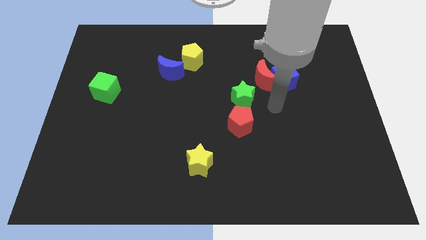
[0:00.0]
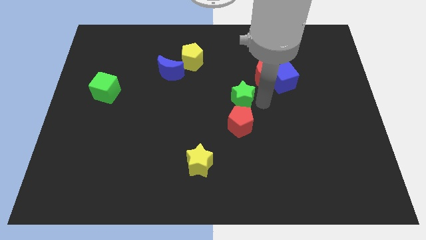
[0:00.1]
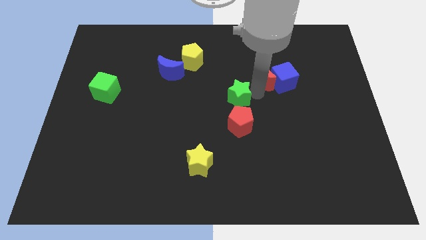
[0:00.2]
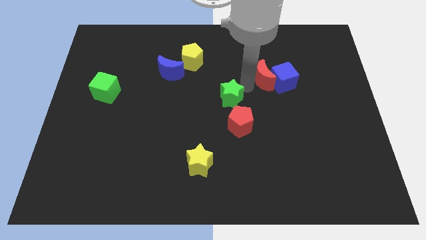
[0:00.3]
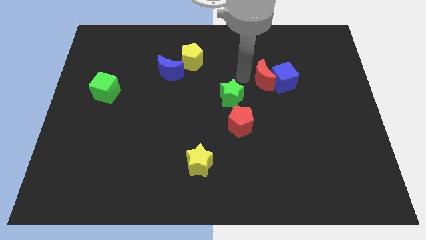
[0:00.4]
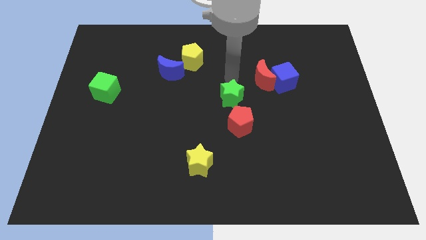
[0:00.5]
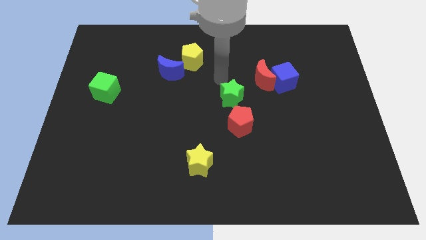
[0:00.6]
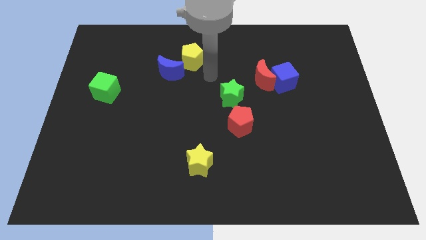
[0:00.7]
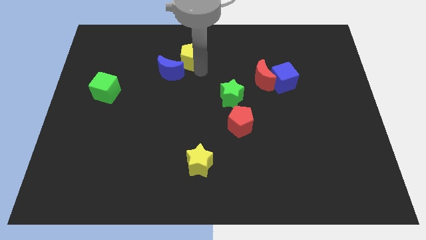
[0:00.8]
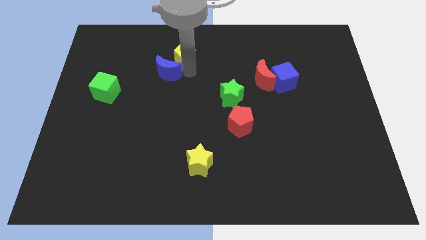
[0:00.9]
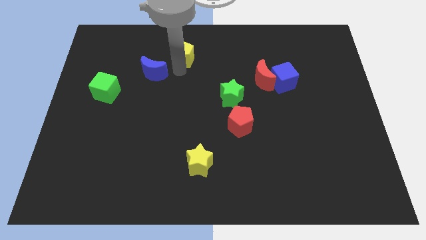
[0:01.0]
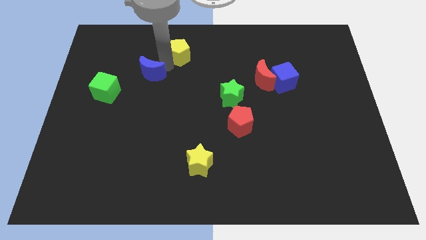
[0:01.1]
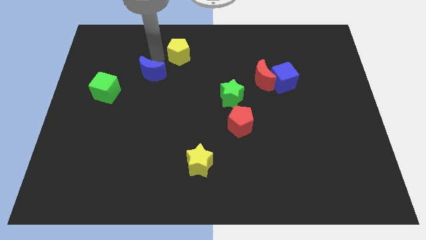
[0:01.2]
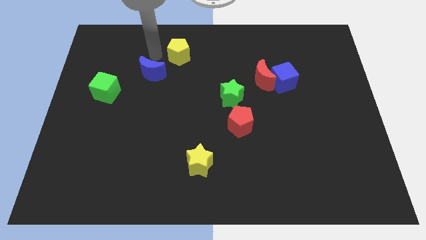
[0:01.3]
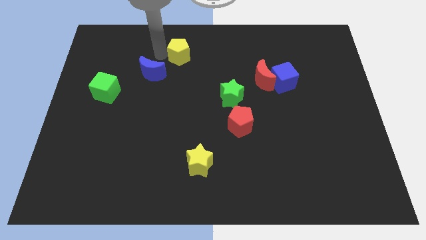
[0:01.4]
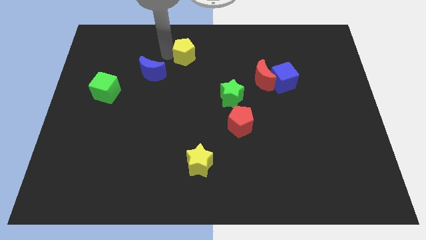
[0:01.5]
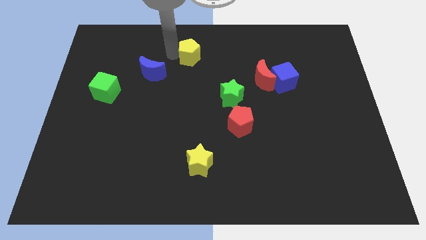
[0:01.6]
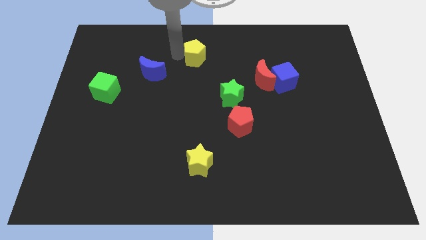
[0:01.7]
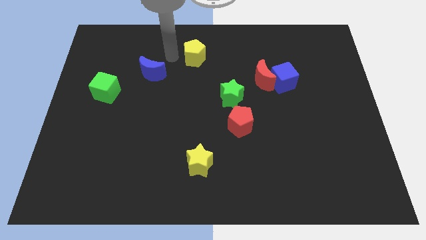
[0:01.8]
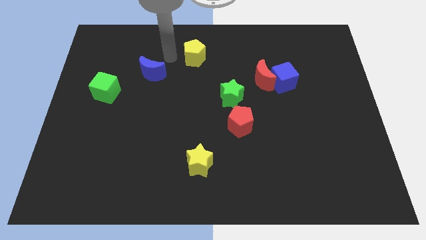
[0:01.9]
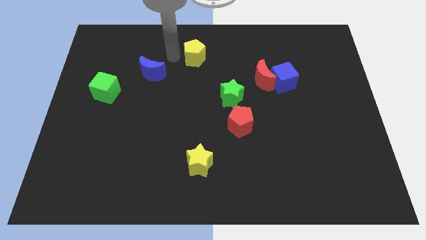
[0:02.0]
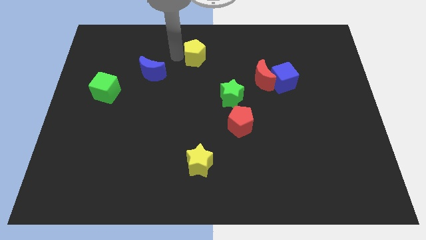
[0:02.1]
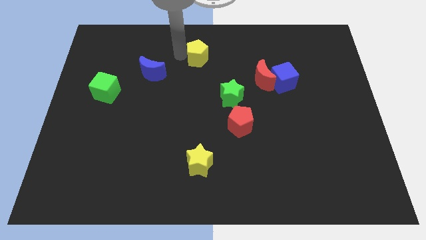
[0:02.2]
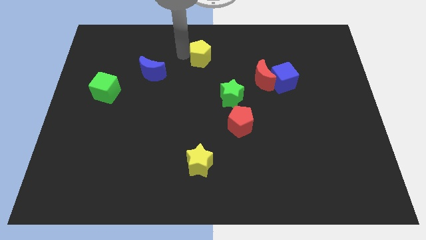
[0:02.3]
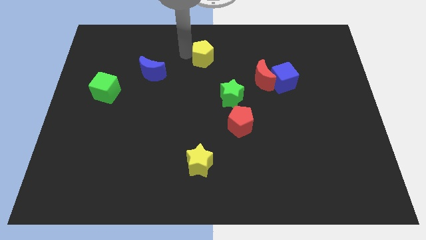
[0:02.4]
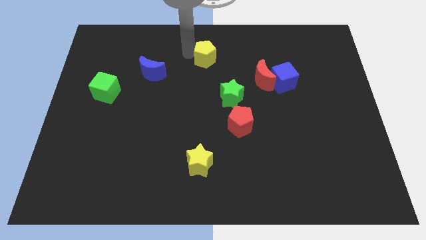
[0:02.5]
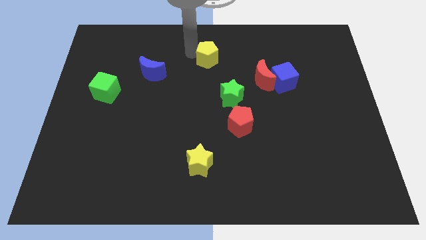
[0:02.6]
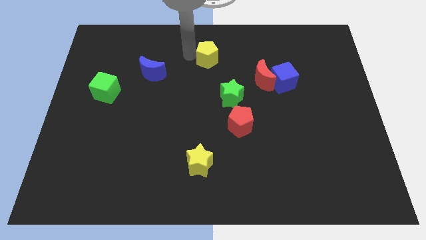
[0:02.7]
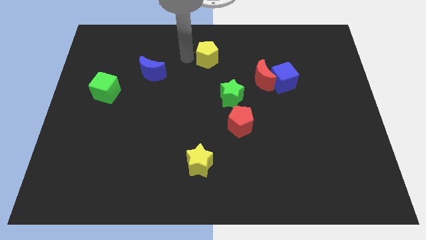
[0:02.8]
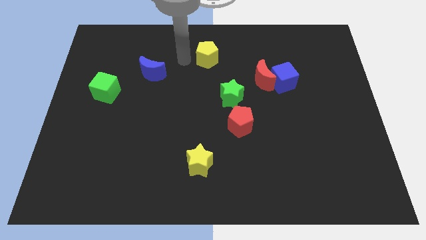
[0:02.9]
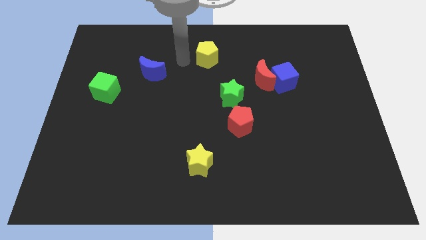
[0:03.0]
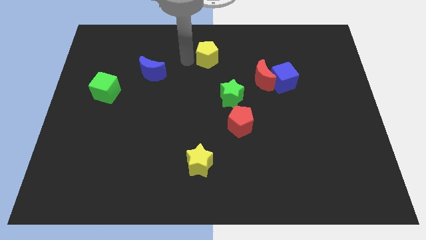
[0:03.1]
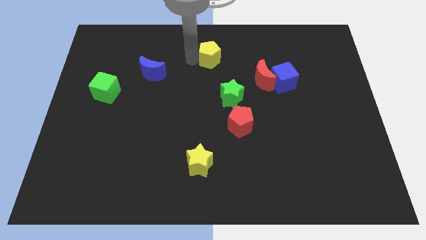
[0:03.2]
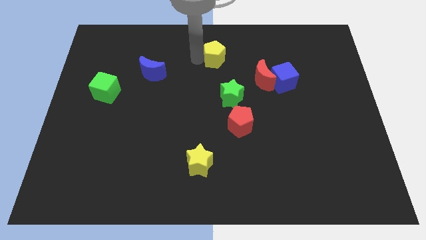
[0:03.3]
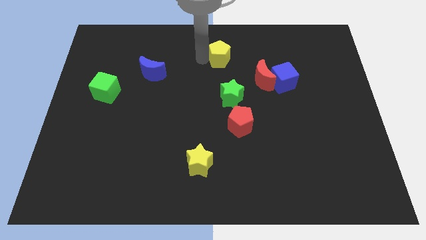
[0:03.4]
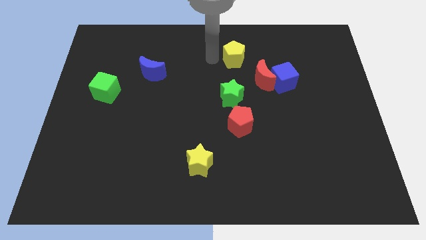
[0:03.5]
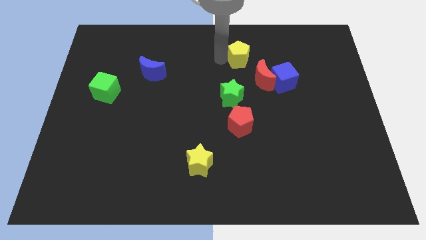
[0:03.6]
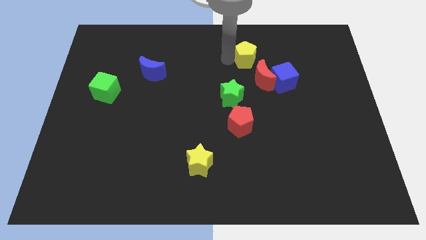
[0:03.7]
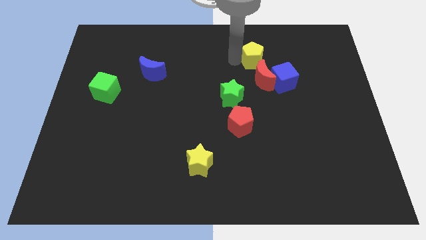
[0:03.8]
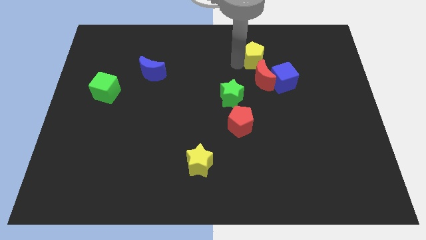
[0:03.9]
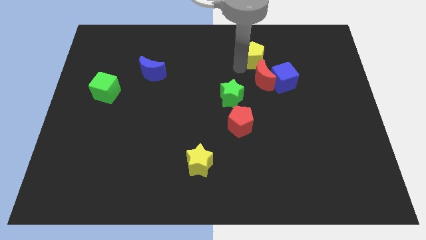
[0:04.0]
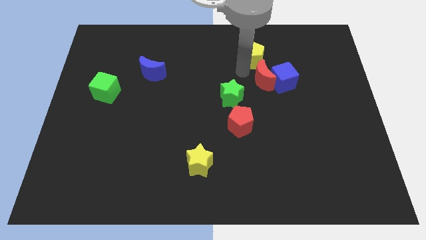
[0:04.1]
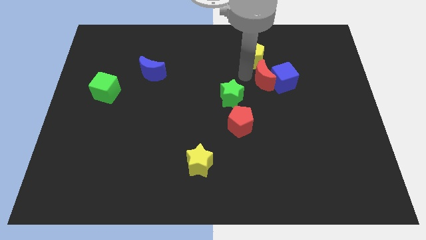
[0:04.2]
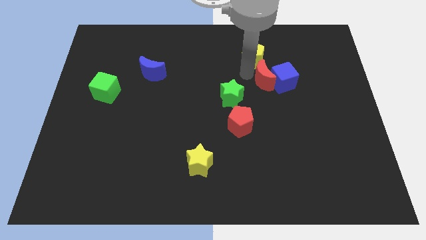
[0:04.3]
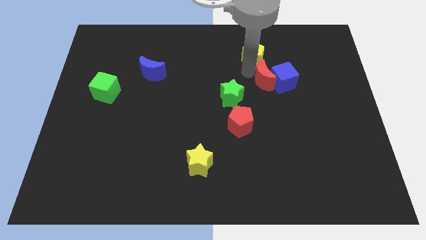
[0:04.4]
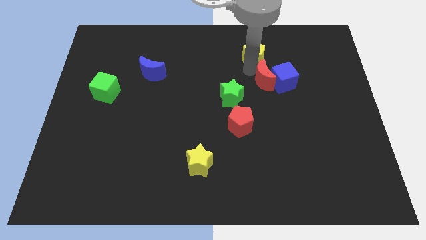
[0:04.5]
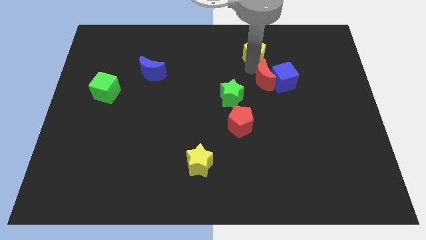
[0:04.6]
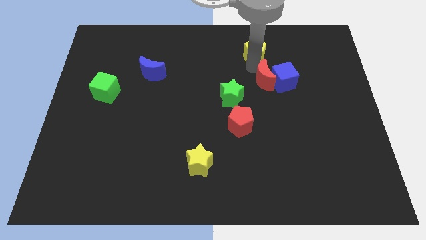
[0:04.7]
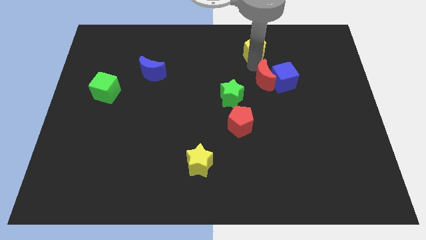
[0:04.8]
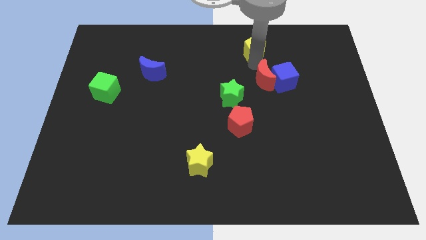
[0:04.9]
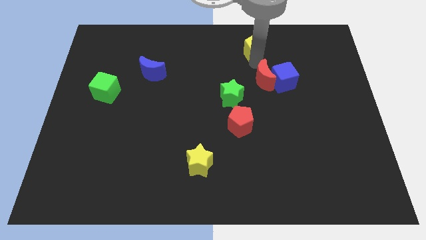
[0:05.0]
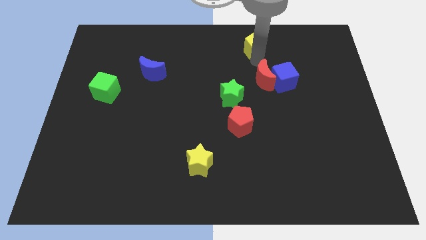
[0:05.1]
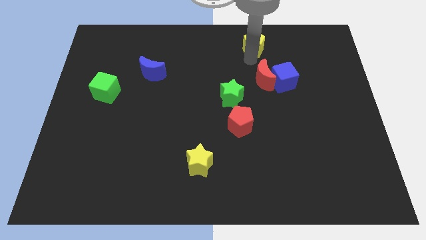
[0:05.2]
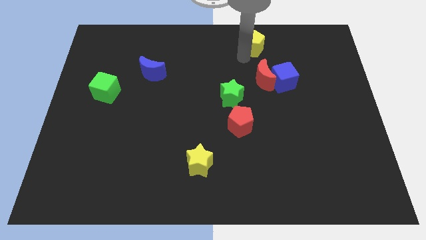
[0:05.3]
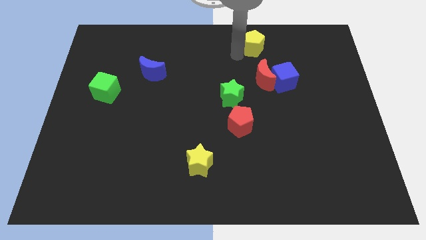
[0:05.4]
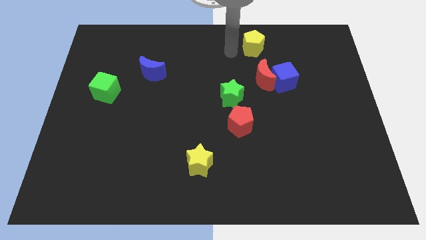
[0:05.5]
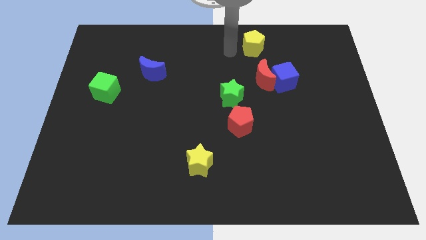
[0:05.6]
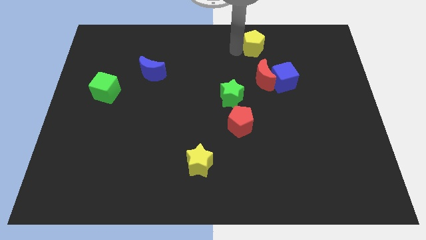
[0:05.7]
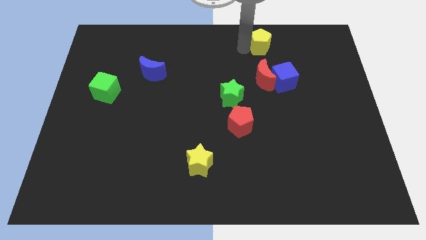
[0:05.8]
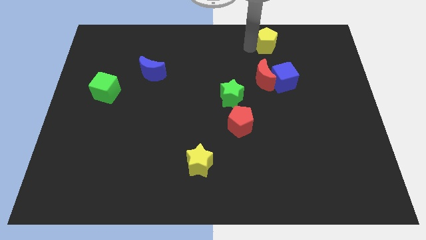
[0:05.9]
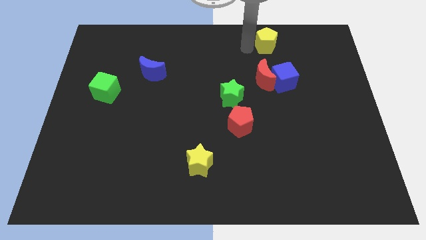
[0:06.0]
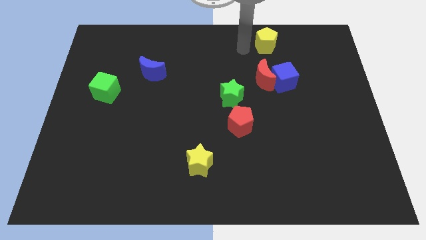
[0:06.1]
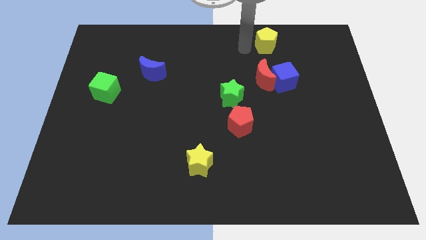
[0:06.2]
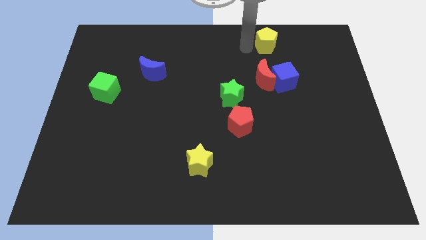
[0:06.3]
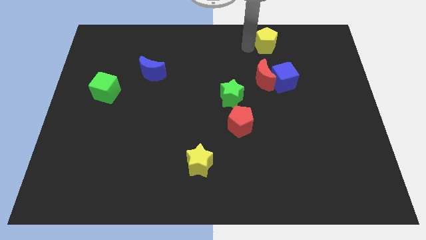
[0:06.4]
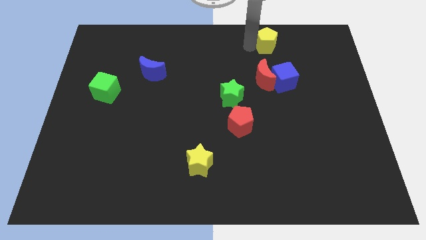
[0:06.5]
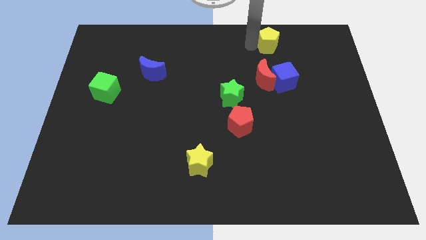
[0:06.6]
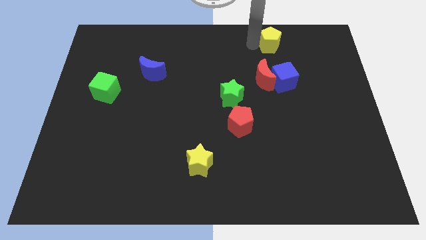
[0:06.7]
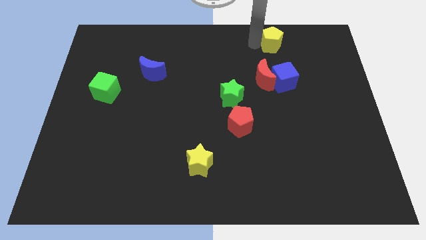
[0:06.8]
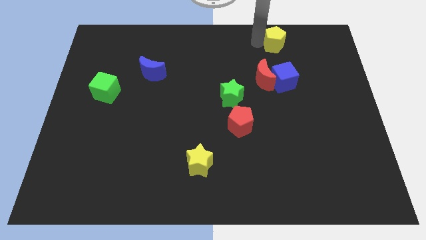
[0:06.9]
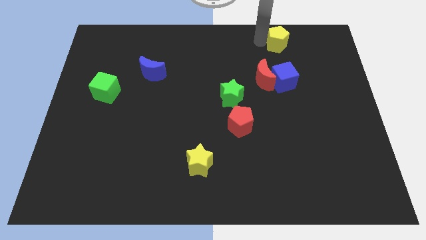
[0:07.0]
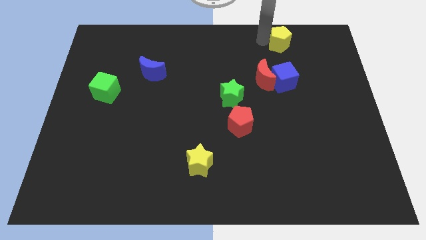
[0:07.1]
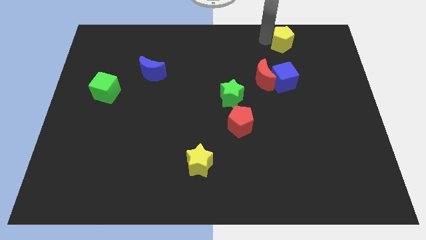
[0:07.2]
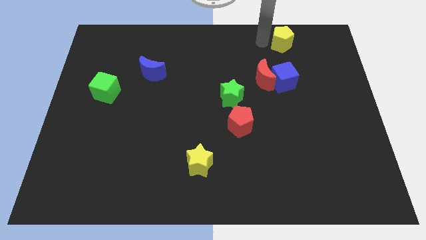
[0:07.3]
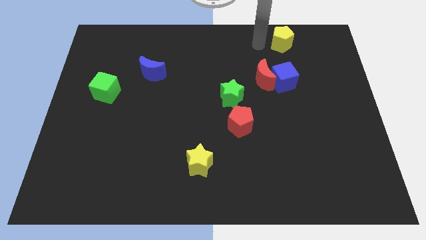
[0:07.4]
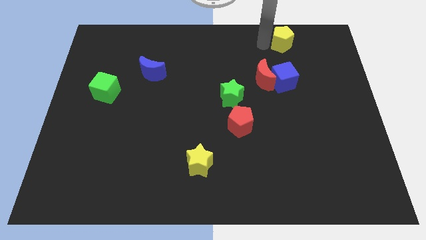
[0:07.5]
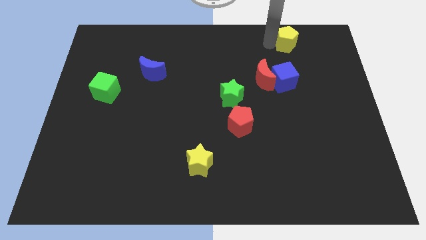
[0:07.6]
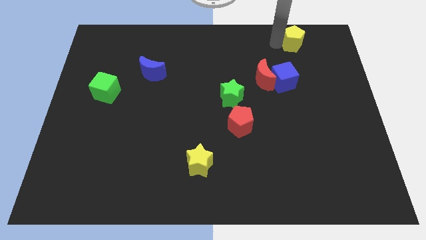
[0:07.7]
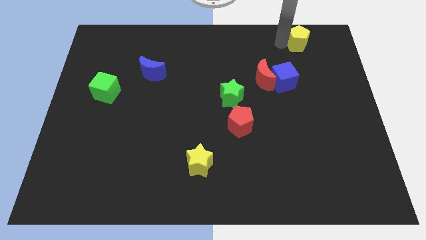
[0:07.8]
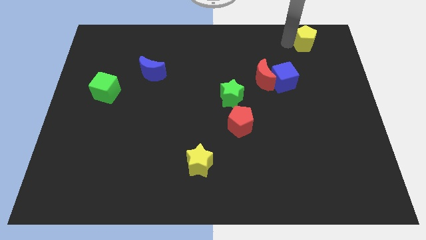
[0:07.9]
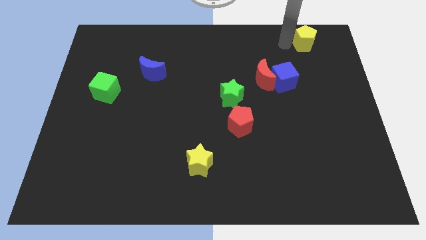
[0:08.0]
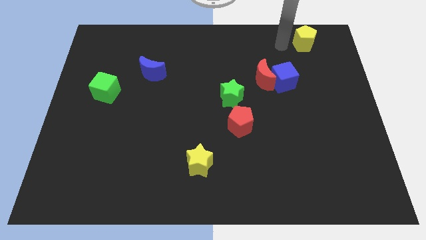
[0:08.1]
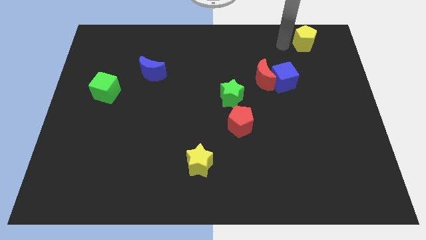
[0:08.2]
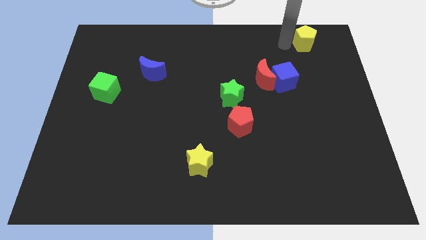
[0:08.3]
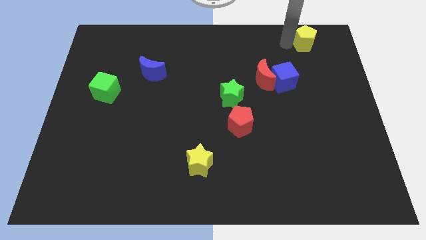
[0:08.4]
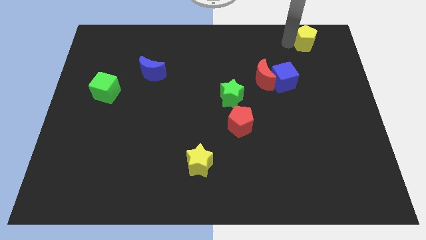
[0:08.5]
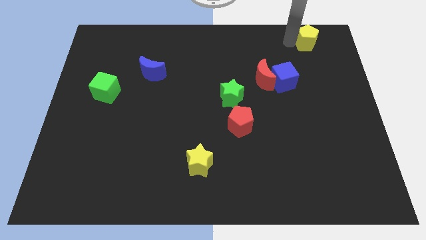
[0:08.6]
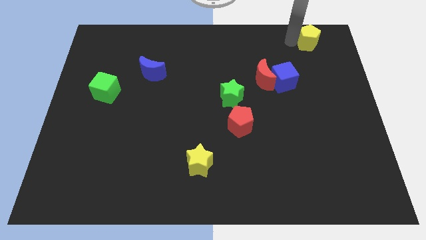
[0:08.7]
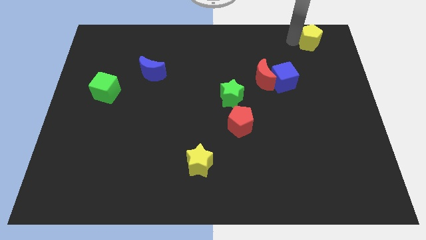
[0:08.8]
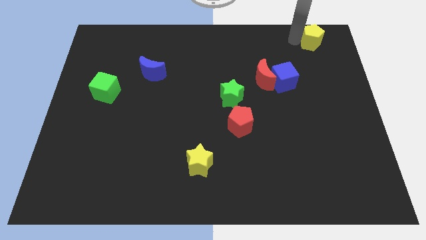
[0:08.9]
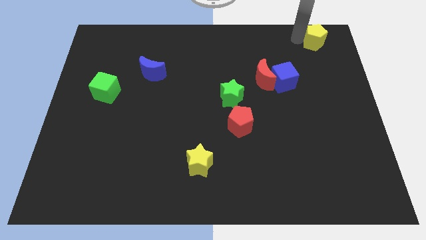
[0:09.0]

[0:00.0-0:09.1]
put the yellow pentagon to the top right corner
